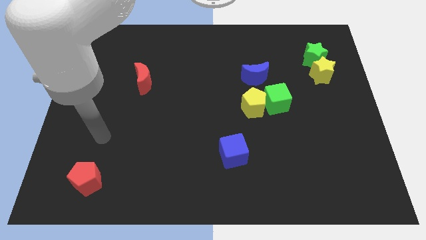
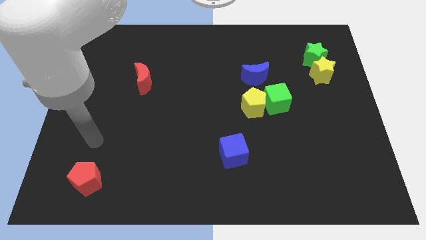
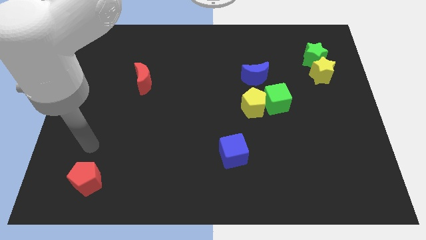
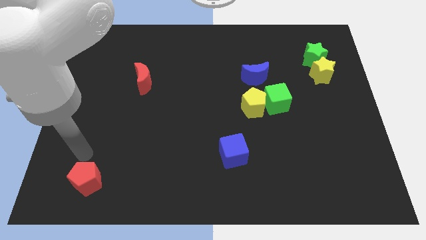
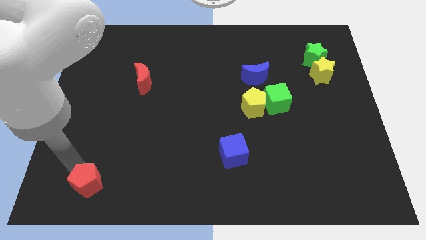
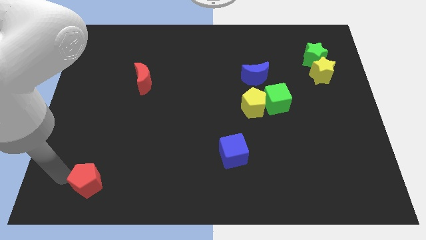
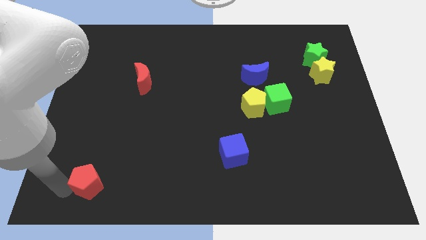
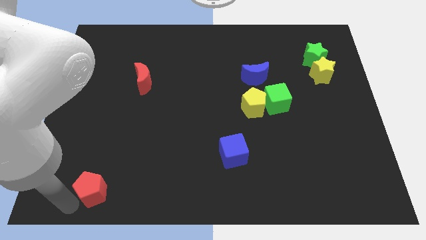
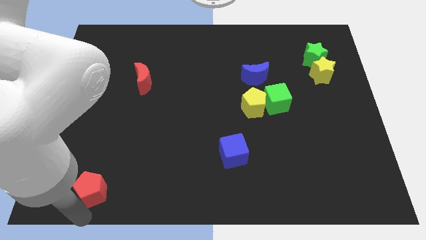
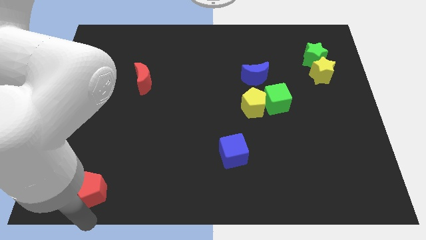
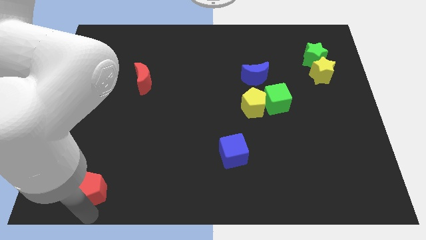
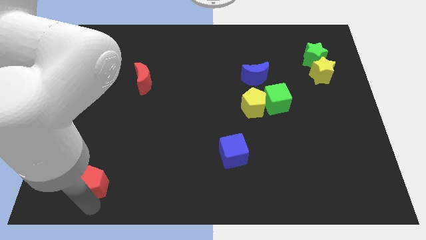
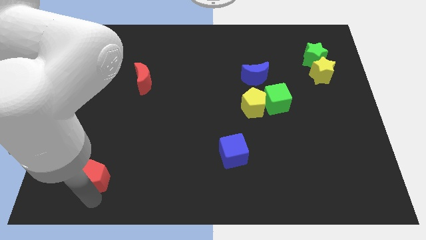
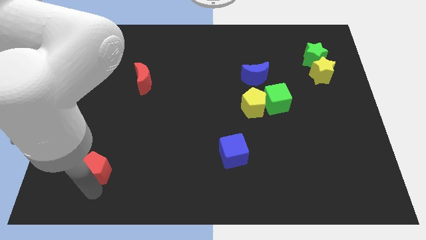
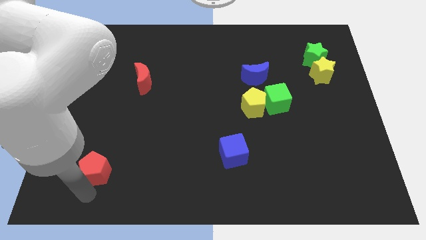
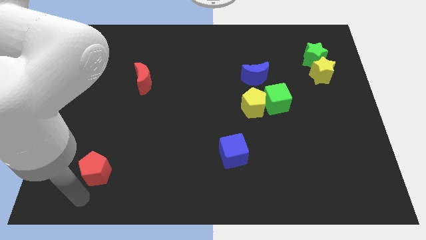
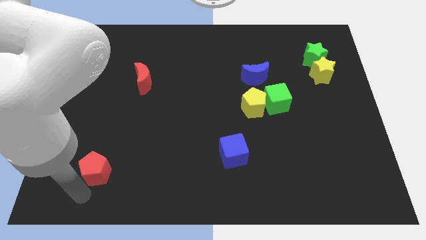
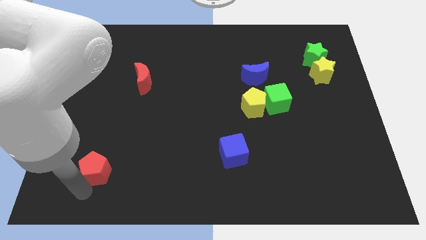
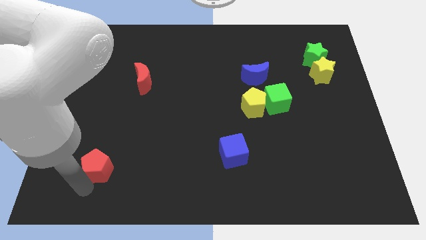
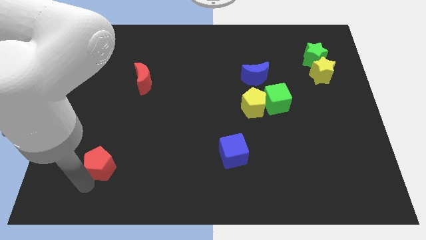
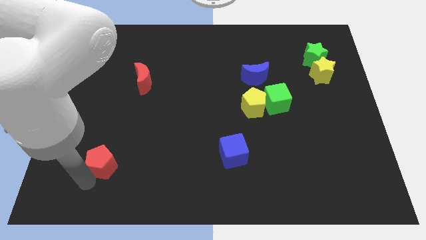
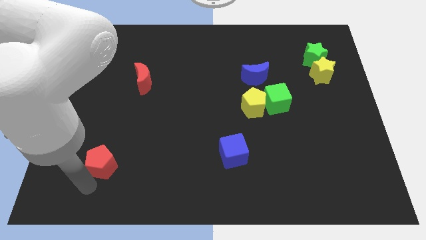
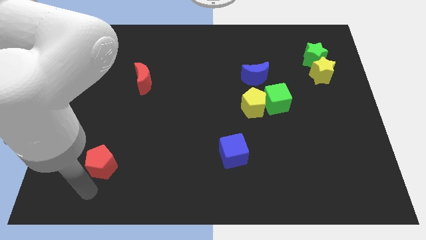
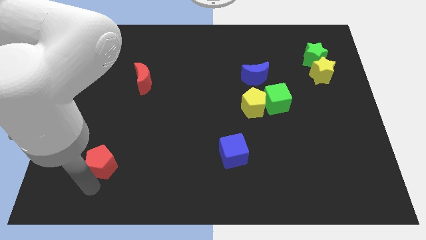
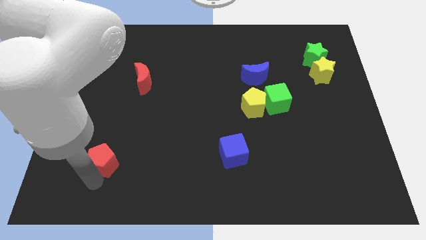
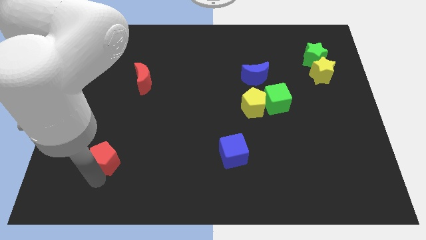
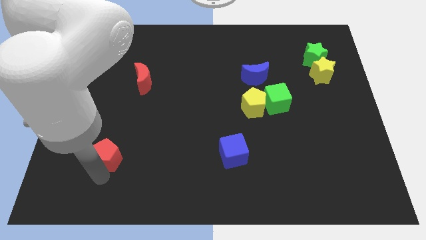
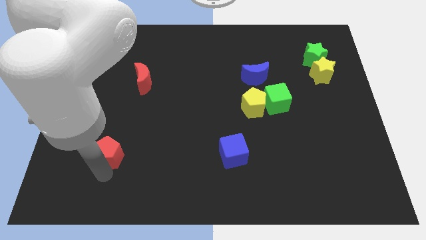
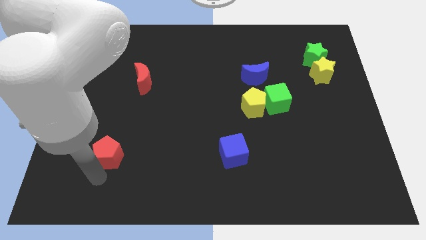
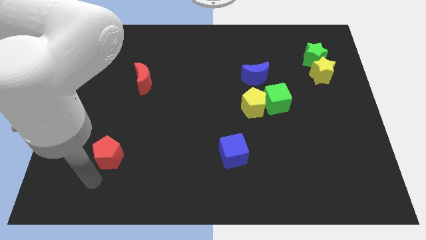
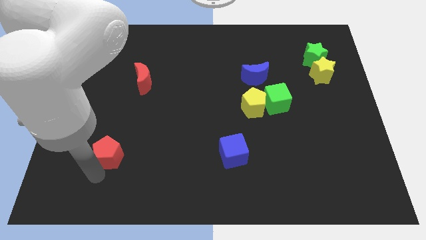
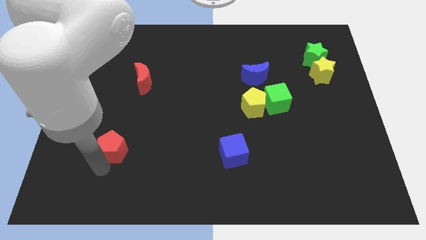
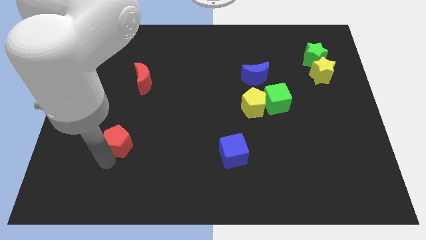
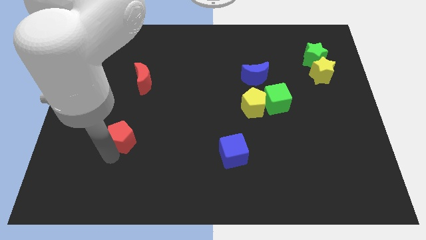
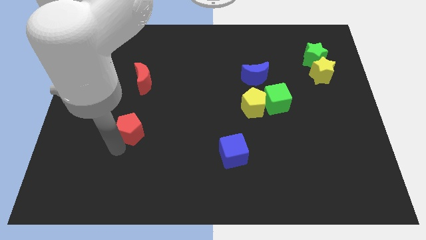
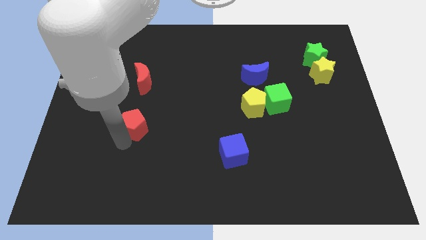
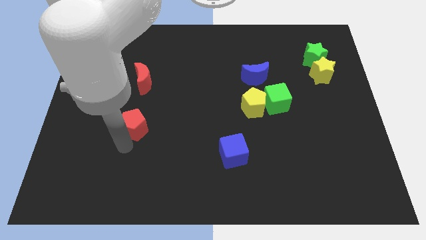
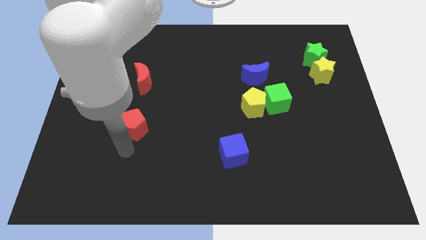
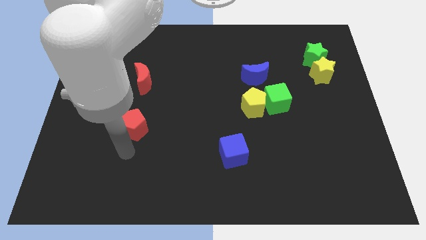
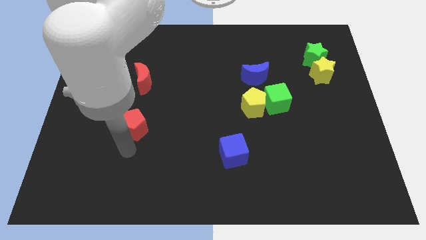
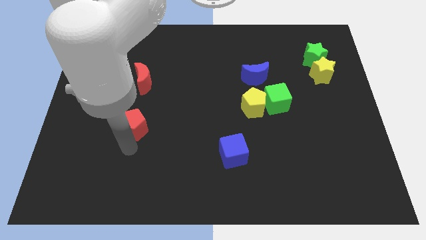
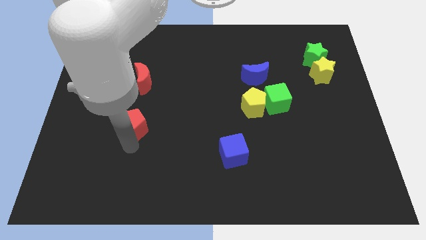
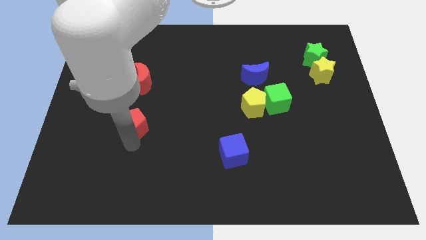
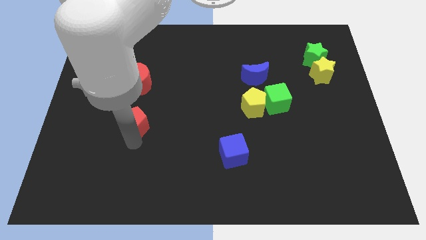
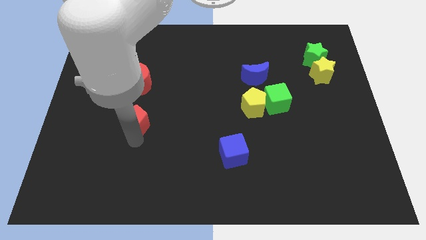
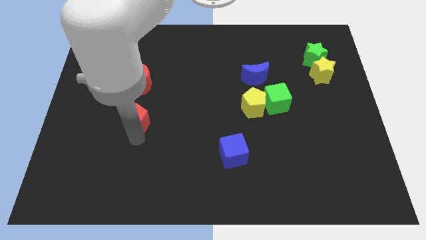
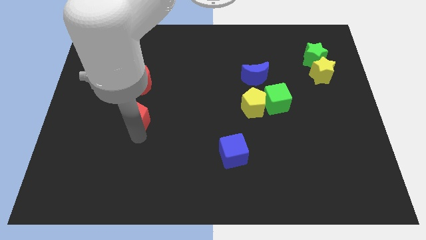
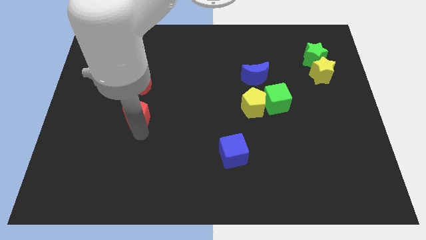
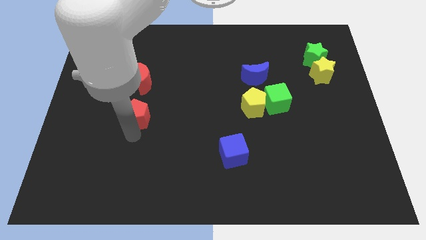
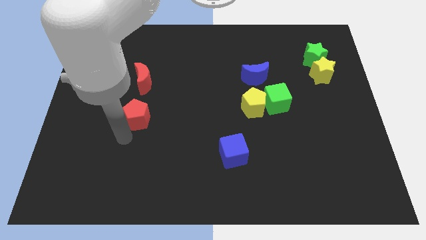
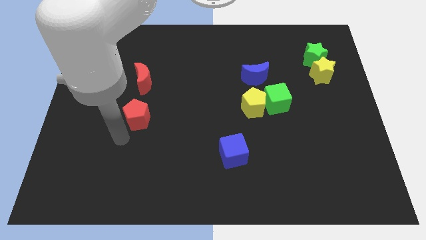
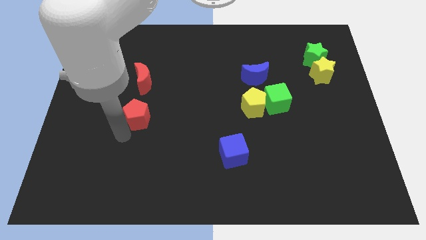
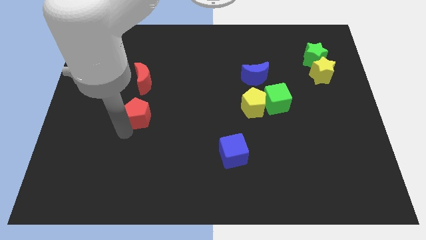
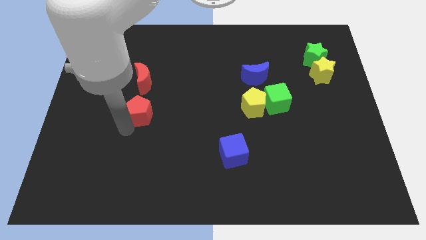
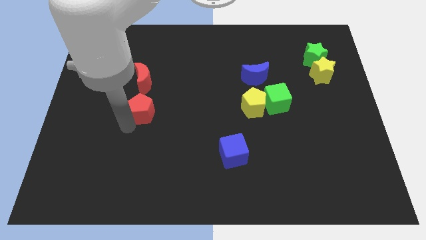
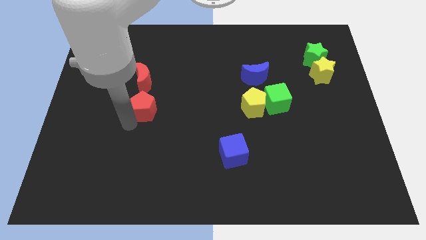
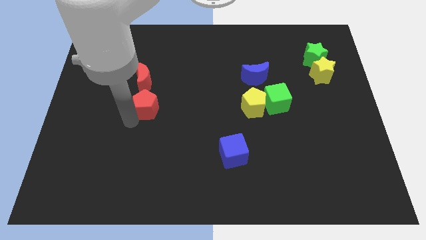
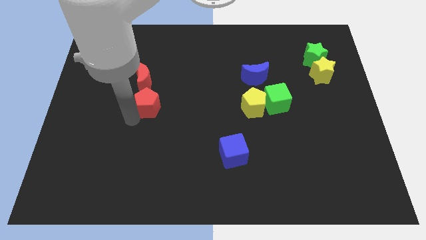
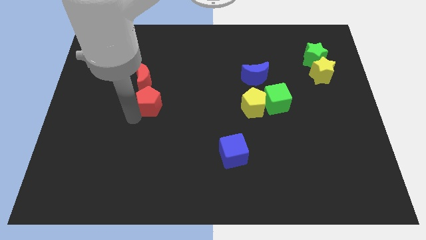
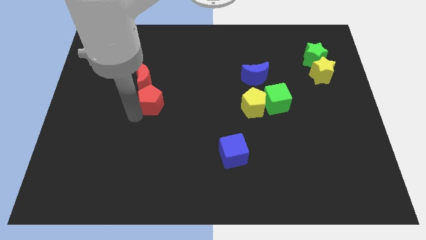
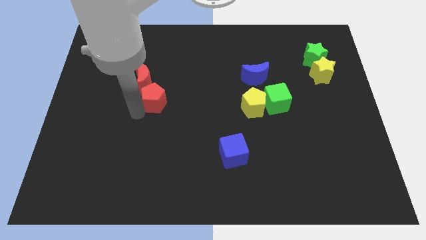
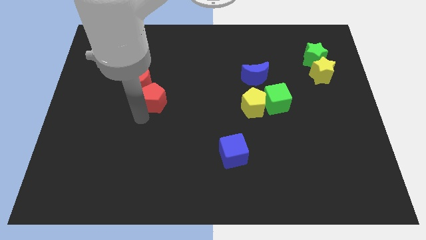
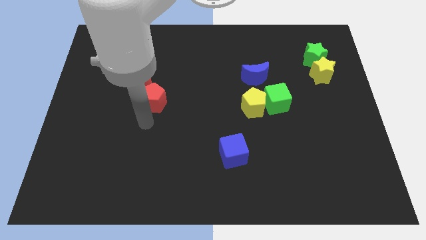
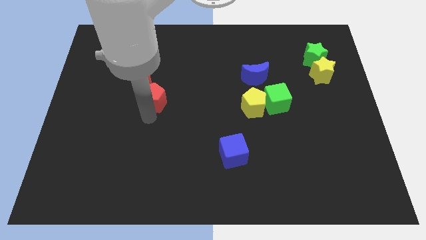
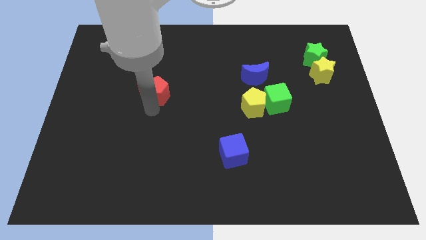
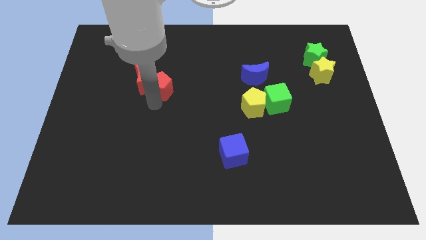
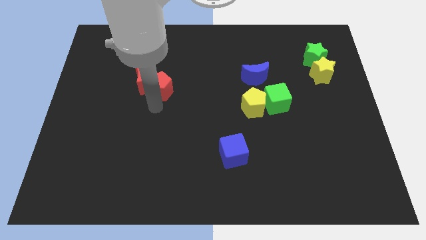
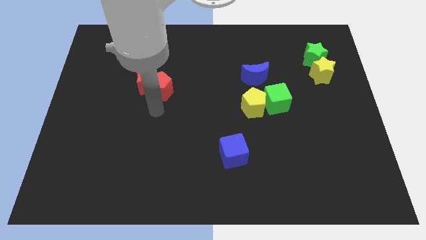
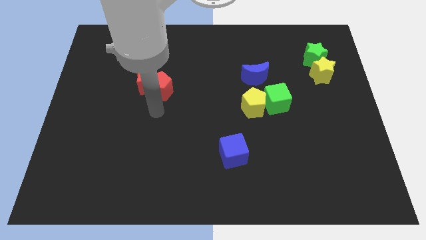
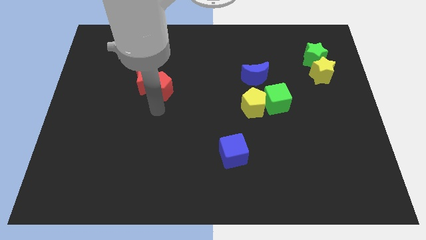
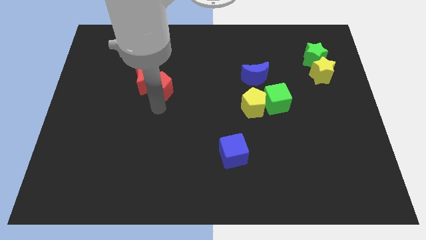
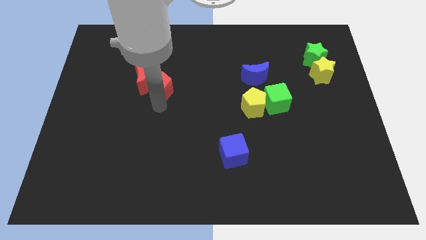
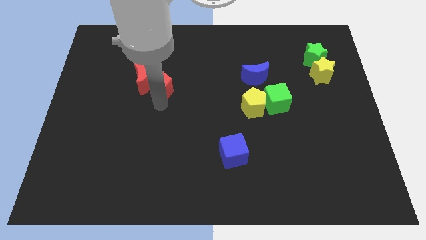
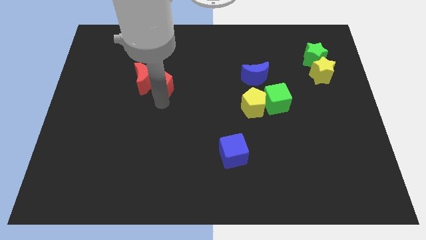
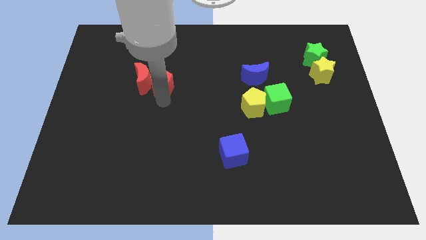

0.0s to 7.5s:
move the red pentagon diagonally up and to the right of the red moon
